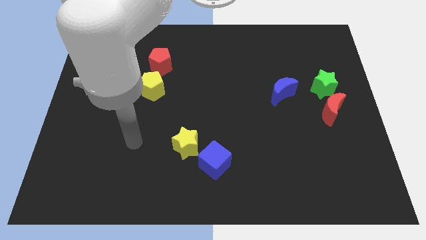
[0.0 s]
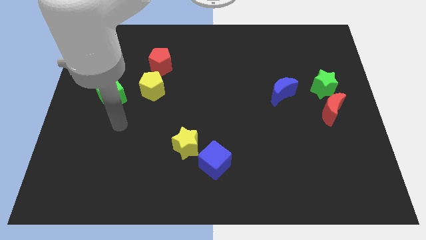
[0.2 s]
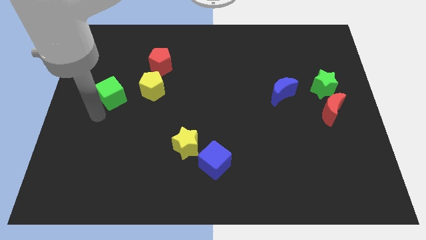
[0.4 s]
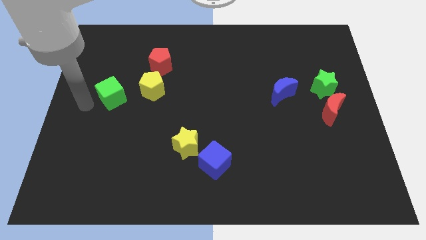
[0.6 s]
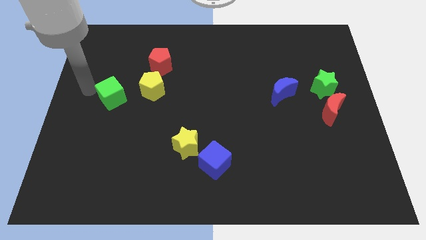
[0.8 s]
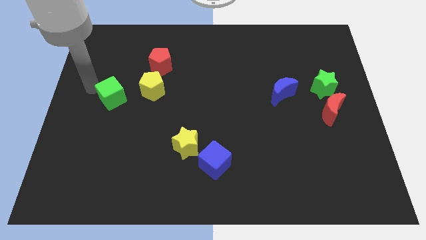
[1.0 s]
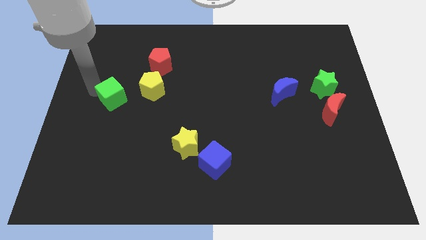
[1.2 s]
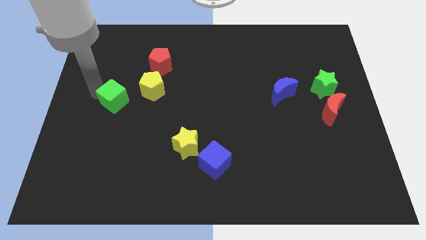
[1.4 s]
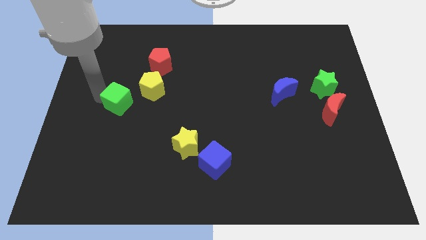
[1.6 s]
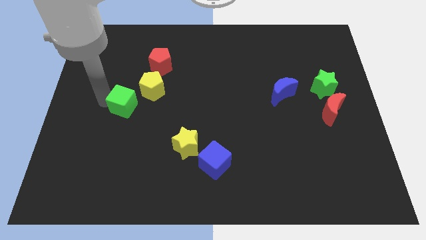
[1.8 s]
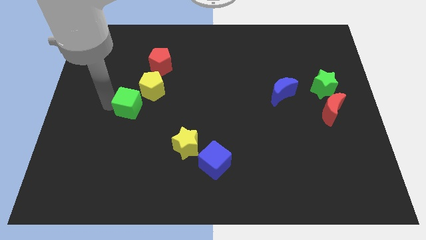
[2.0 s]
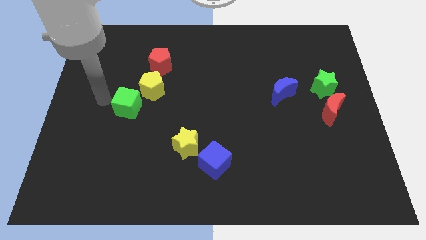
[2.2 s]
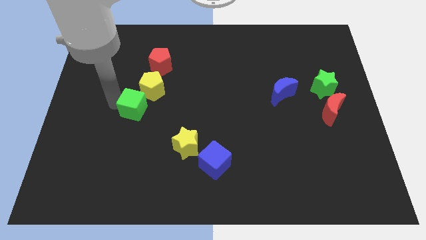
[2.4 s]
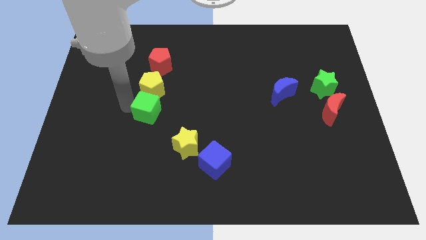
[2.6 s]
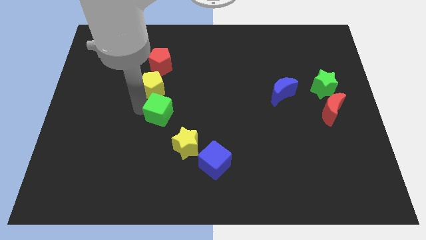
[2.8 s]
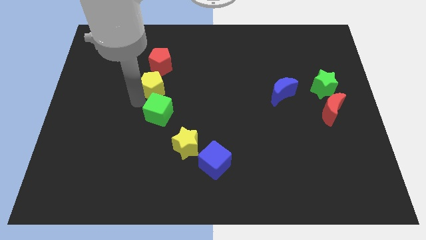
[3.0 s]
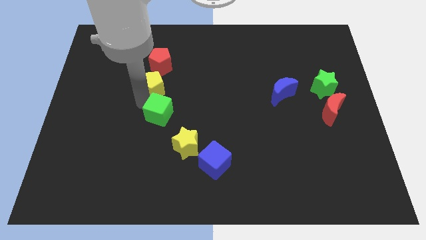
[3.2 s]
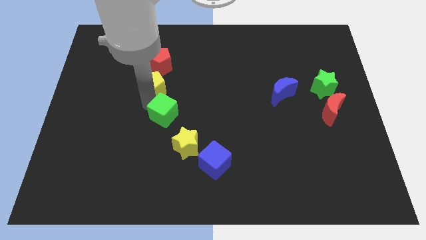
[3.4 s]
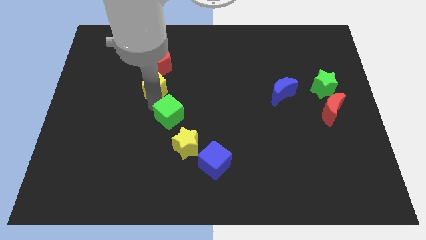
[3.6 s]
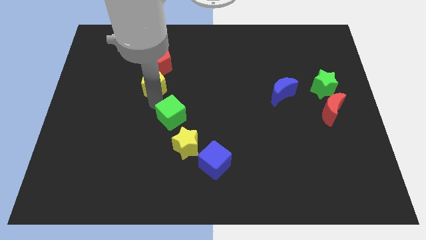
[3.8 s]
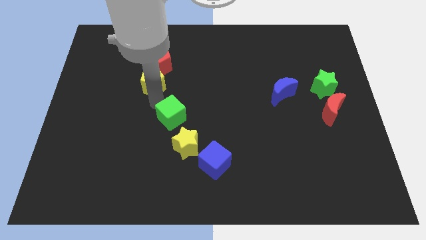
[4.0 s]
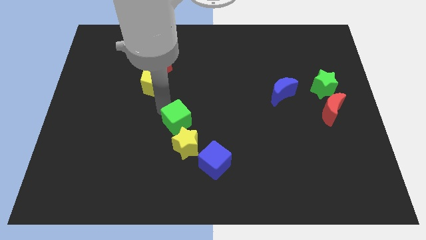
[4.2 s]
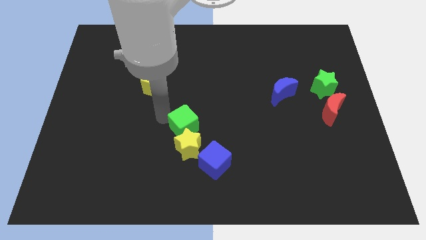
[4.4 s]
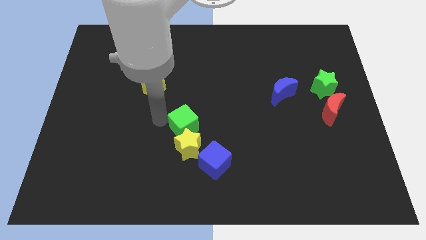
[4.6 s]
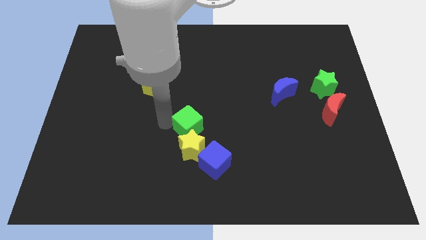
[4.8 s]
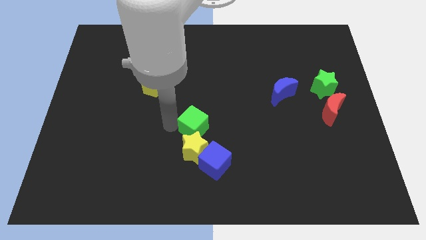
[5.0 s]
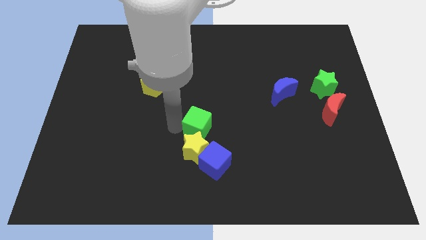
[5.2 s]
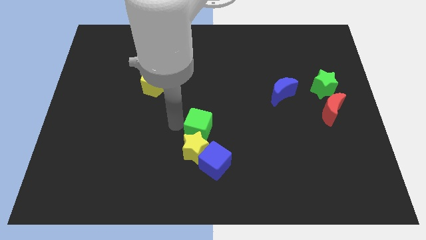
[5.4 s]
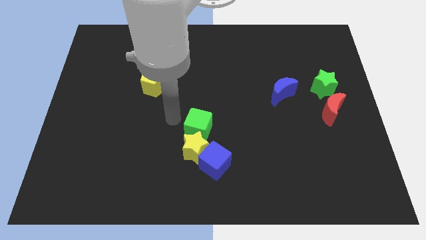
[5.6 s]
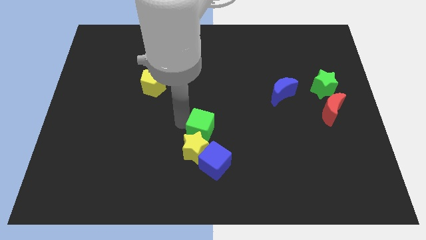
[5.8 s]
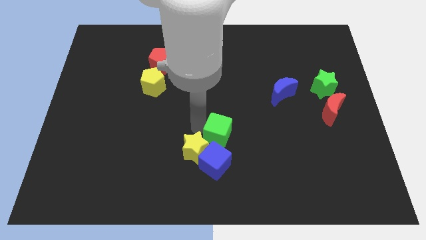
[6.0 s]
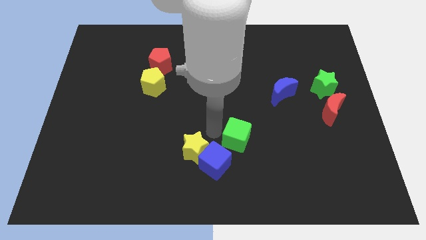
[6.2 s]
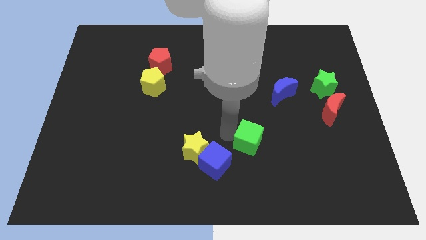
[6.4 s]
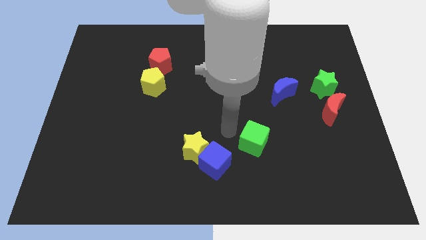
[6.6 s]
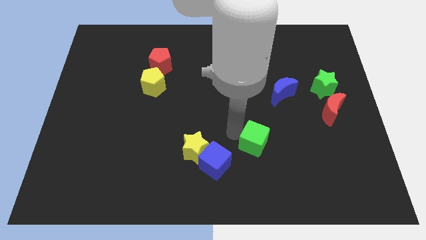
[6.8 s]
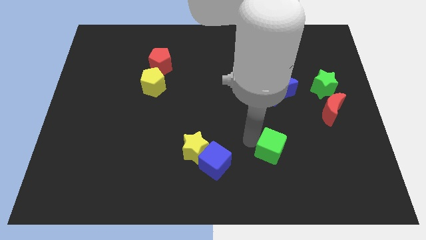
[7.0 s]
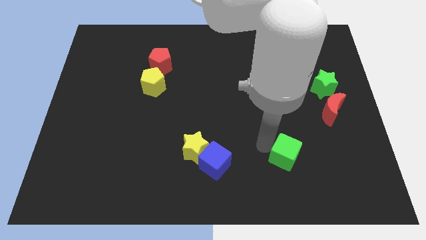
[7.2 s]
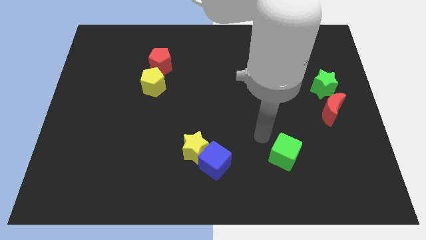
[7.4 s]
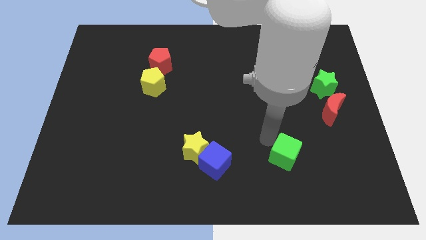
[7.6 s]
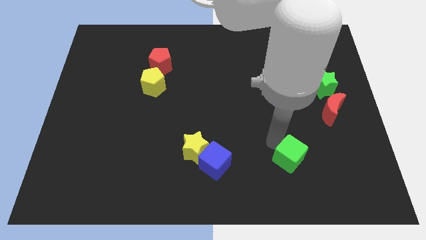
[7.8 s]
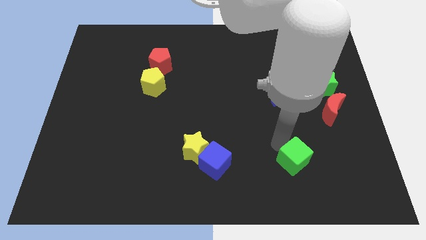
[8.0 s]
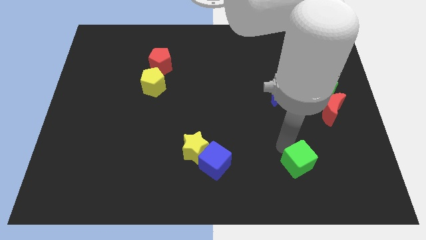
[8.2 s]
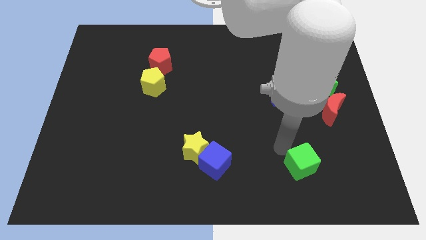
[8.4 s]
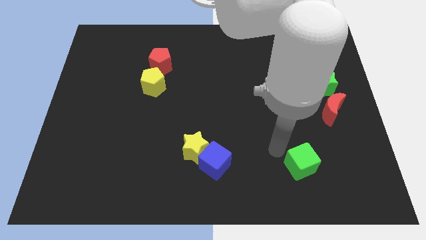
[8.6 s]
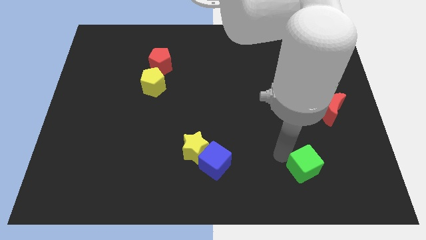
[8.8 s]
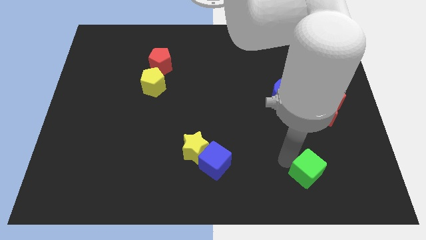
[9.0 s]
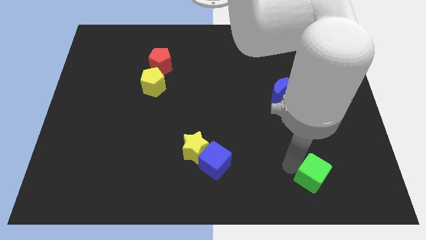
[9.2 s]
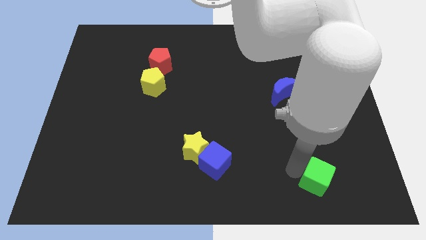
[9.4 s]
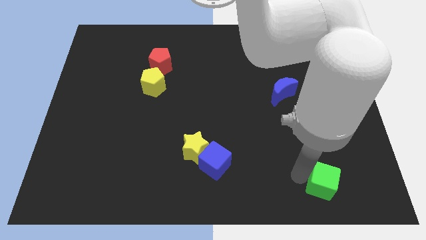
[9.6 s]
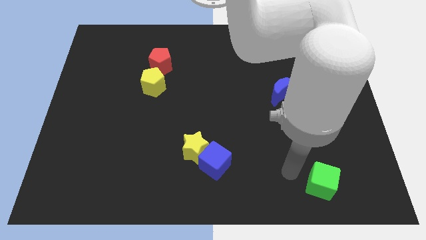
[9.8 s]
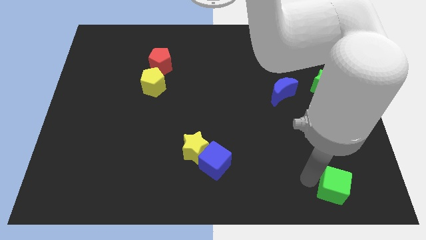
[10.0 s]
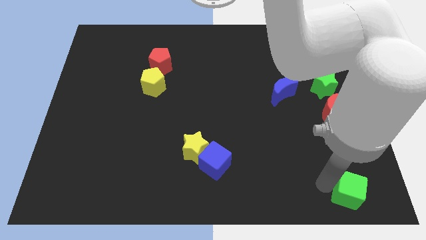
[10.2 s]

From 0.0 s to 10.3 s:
put the green cube to the bottom right of the board

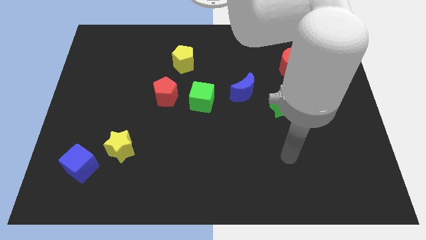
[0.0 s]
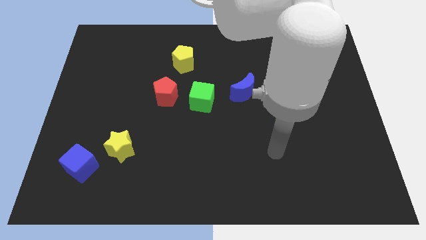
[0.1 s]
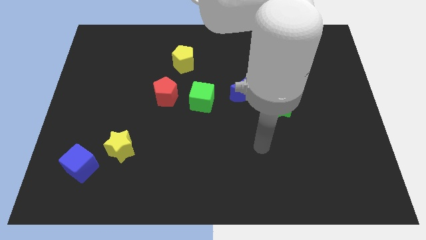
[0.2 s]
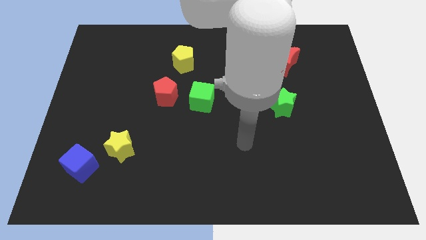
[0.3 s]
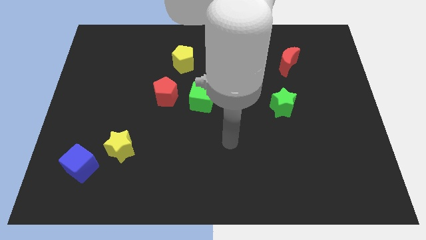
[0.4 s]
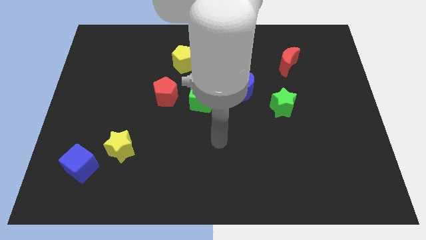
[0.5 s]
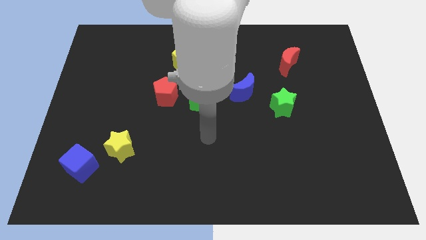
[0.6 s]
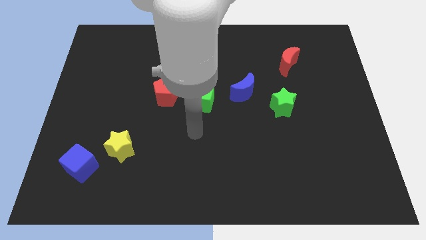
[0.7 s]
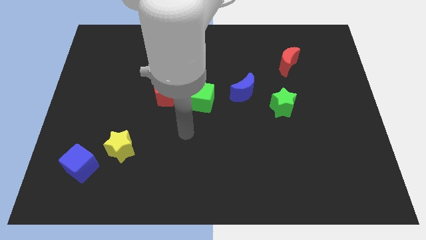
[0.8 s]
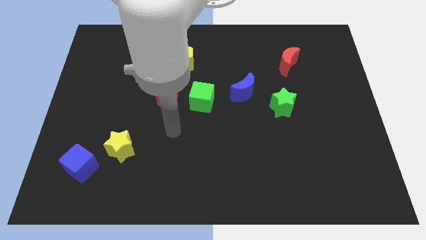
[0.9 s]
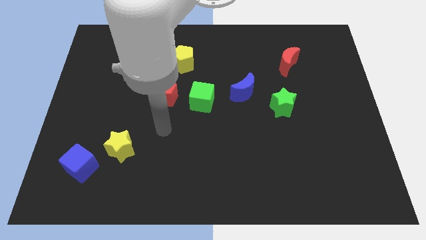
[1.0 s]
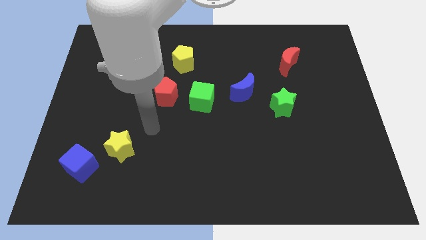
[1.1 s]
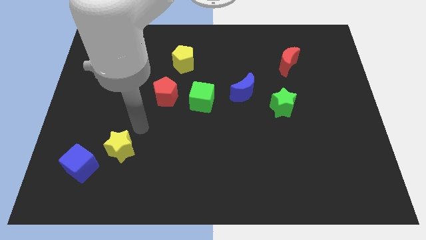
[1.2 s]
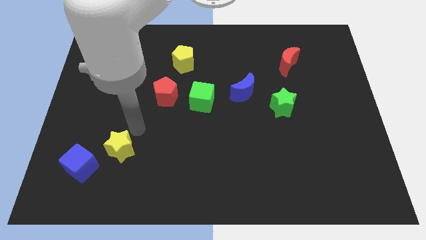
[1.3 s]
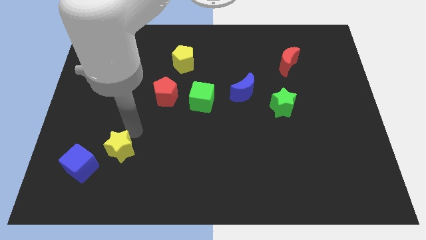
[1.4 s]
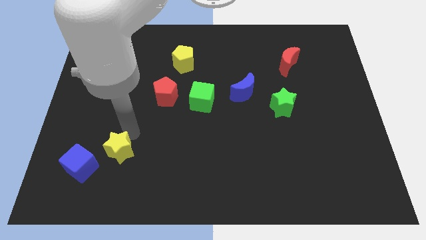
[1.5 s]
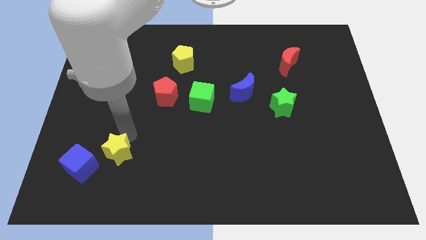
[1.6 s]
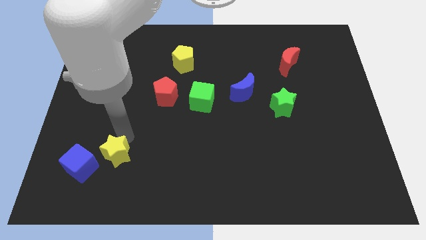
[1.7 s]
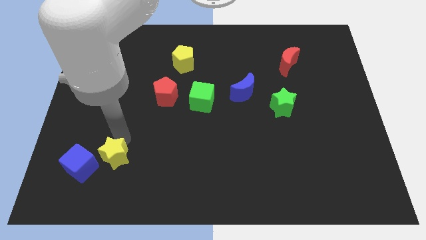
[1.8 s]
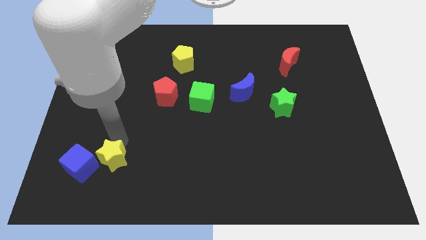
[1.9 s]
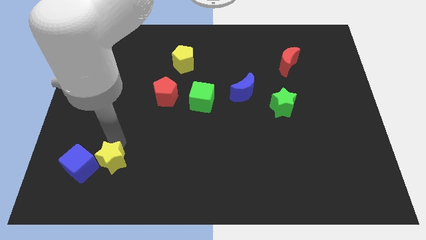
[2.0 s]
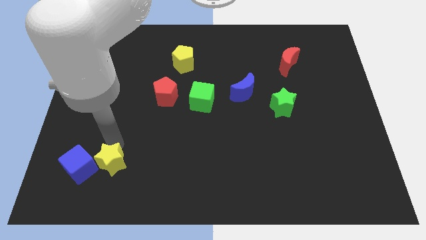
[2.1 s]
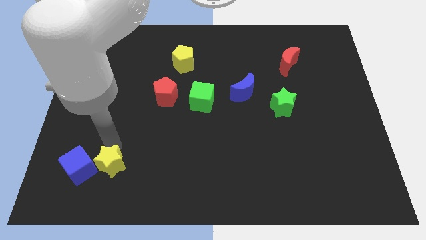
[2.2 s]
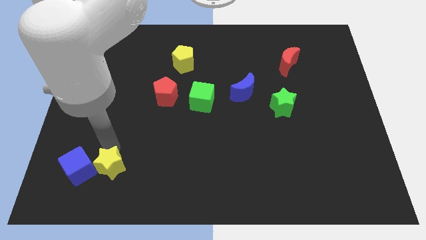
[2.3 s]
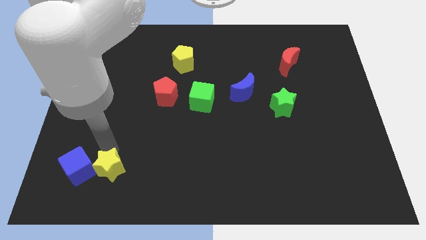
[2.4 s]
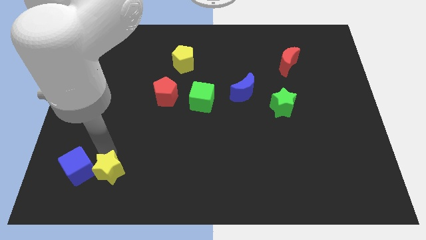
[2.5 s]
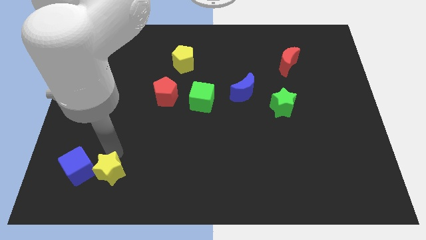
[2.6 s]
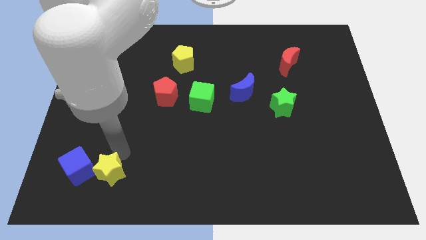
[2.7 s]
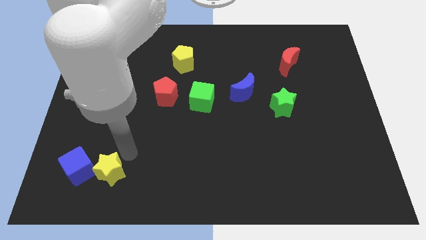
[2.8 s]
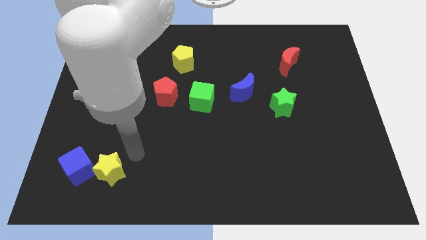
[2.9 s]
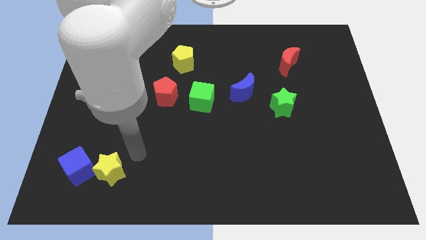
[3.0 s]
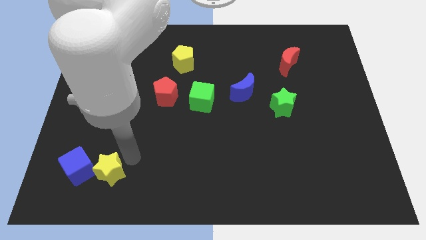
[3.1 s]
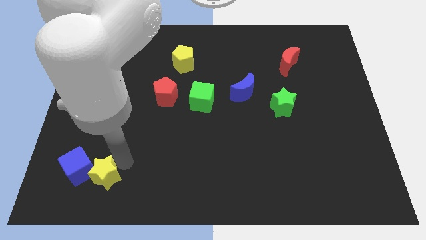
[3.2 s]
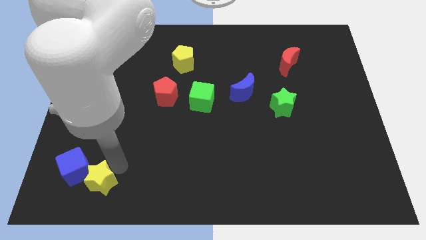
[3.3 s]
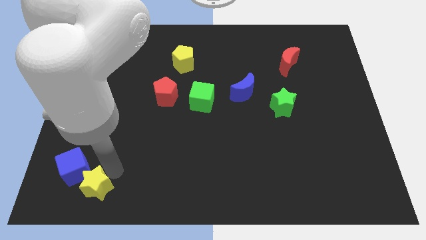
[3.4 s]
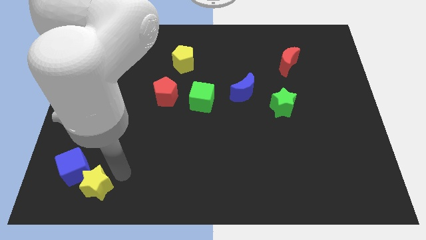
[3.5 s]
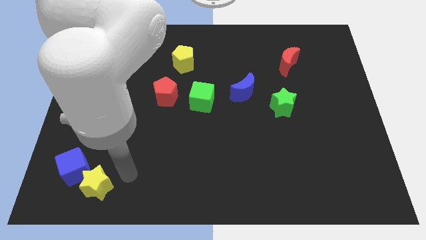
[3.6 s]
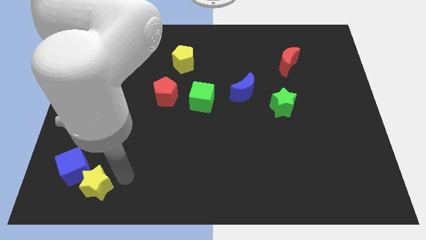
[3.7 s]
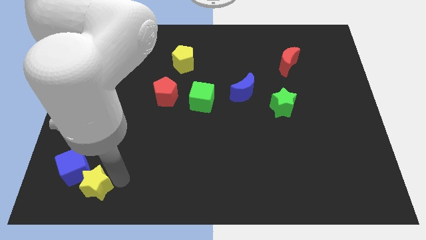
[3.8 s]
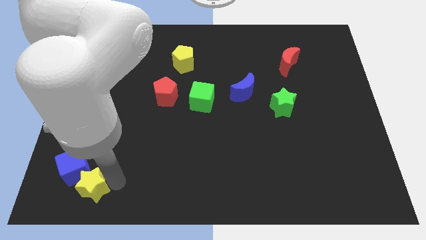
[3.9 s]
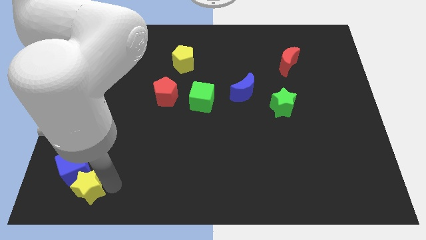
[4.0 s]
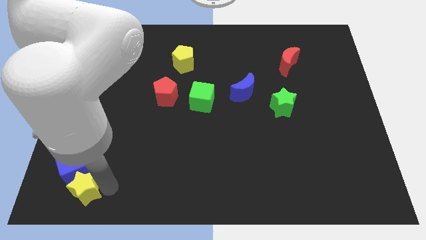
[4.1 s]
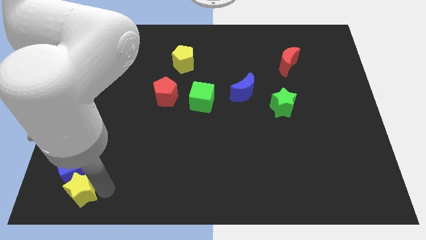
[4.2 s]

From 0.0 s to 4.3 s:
push the yellow star to the bottom left corner
